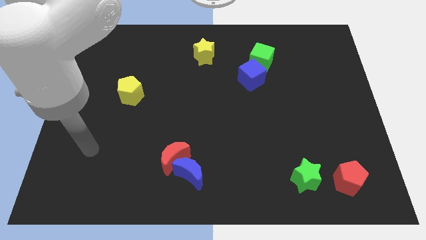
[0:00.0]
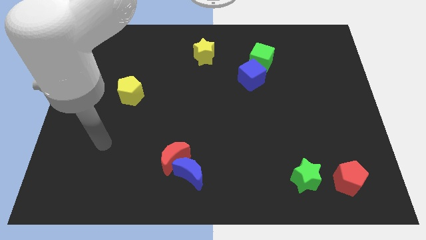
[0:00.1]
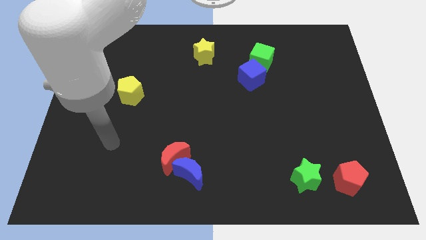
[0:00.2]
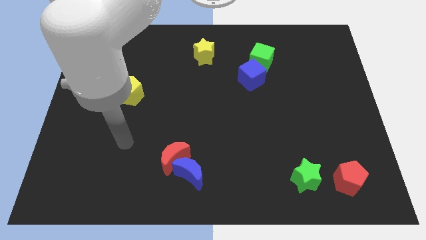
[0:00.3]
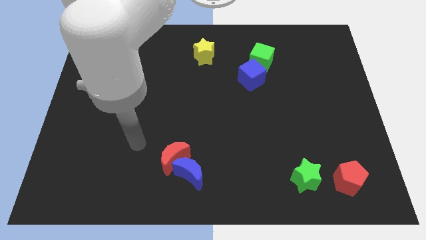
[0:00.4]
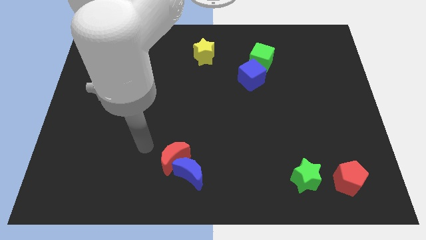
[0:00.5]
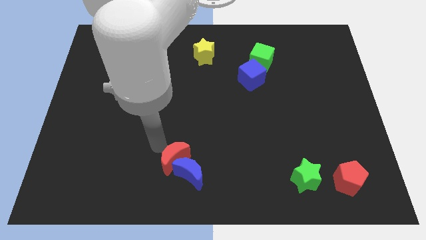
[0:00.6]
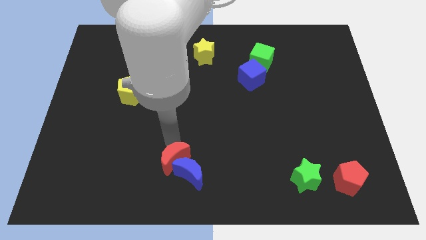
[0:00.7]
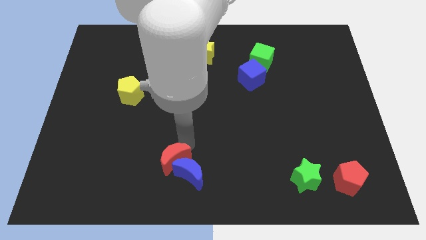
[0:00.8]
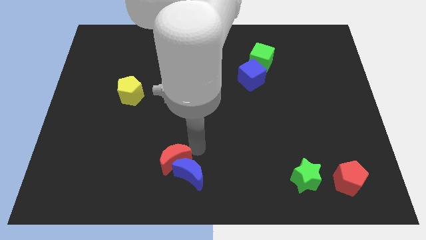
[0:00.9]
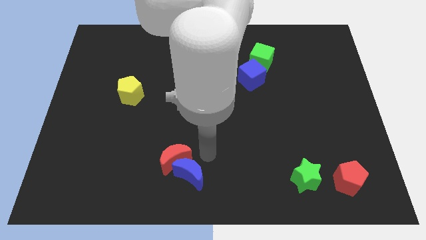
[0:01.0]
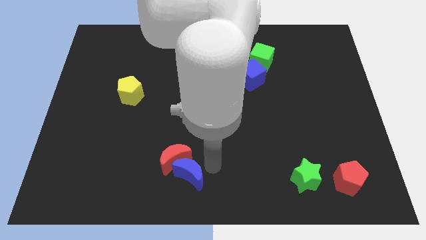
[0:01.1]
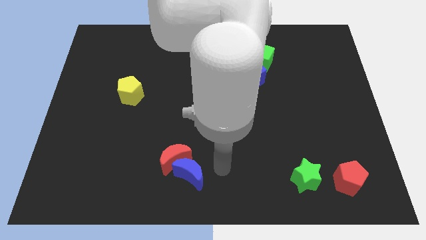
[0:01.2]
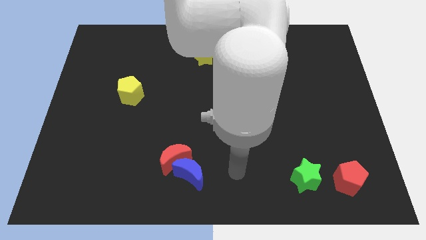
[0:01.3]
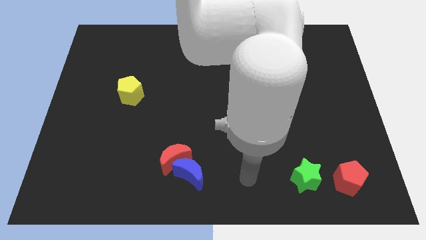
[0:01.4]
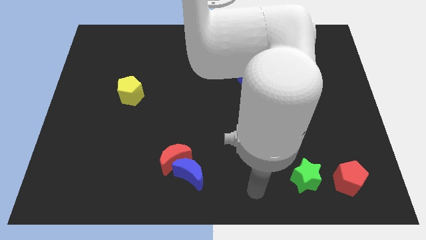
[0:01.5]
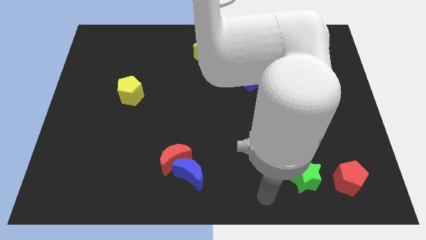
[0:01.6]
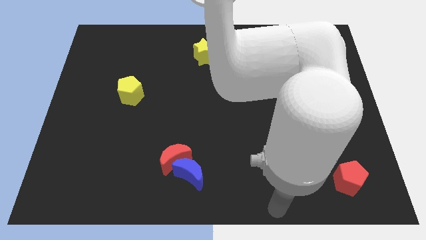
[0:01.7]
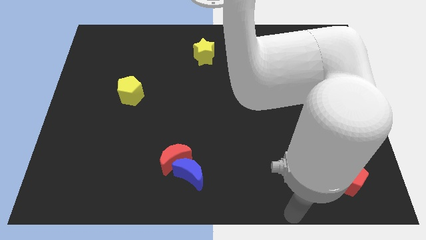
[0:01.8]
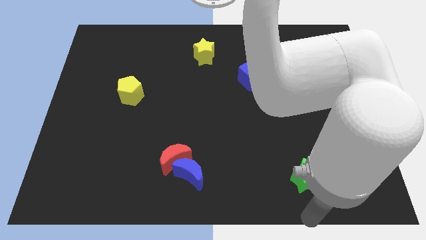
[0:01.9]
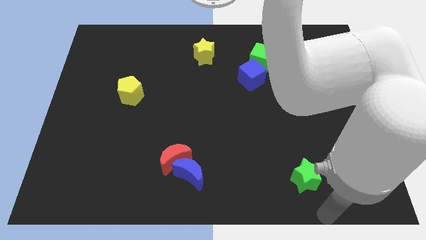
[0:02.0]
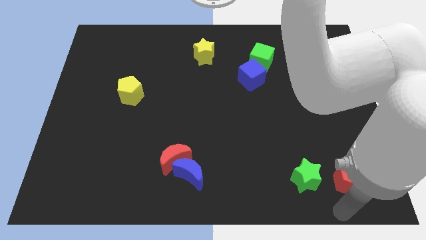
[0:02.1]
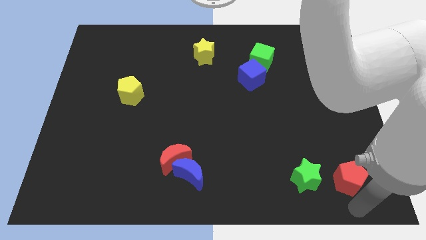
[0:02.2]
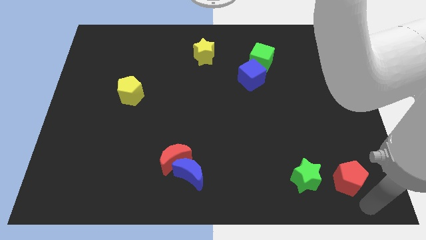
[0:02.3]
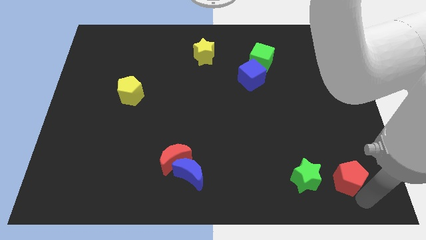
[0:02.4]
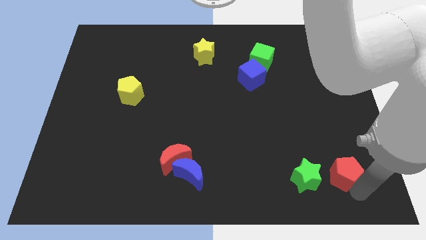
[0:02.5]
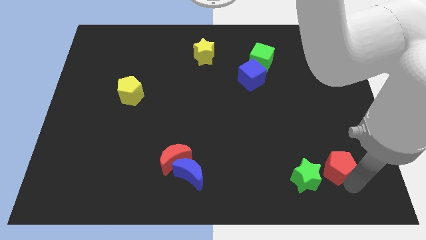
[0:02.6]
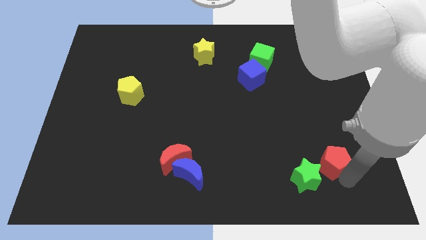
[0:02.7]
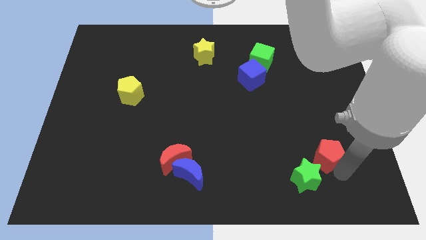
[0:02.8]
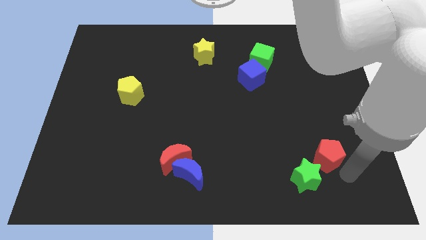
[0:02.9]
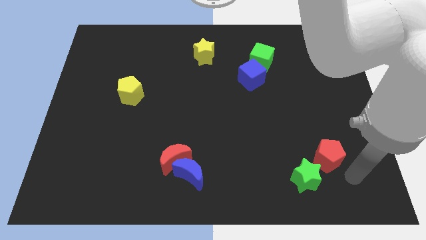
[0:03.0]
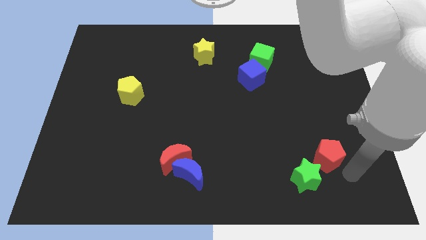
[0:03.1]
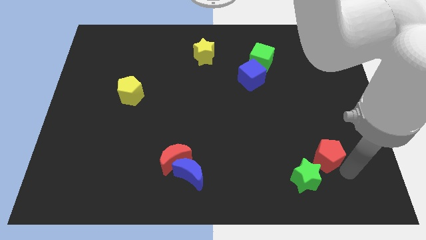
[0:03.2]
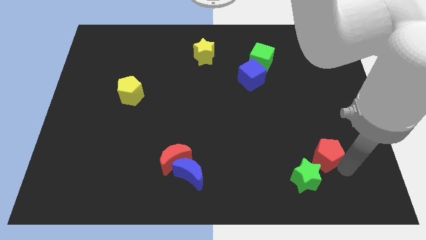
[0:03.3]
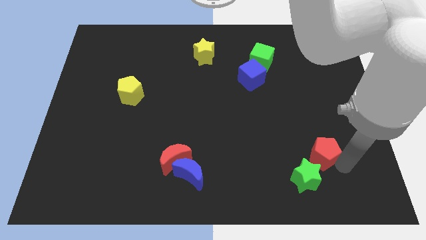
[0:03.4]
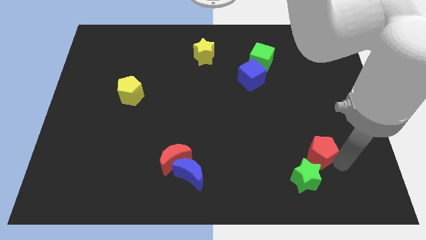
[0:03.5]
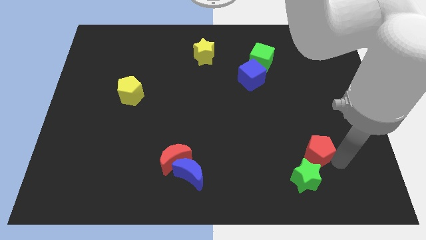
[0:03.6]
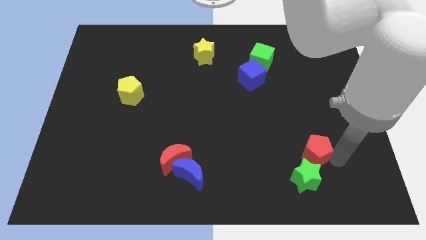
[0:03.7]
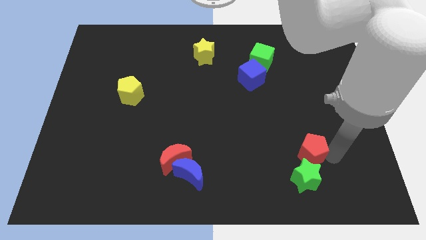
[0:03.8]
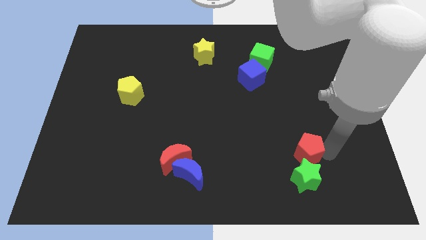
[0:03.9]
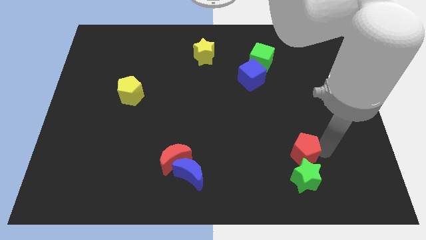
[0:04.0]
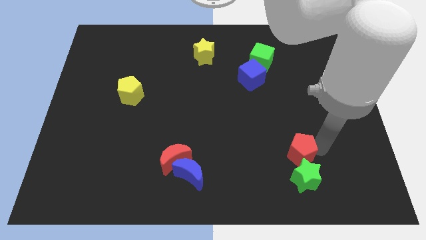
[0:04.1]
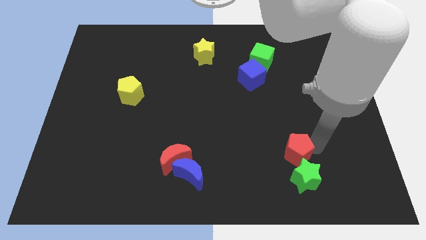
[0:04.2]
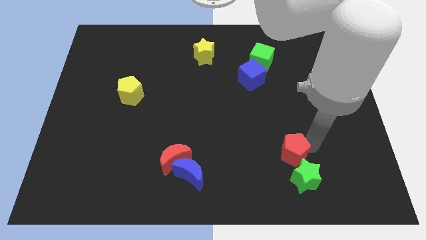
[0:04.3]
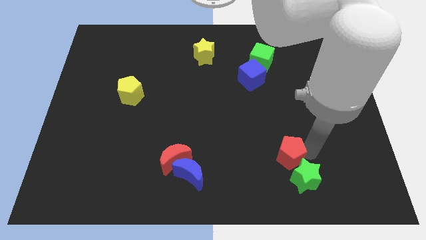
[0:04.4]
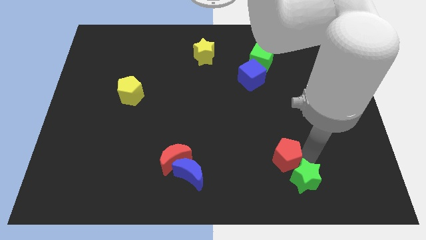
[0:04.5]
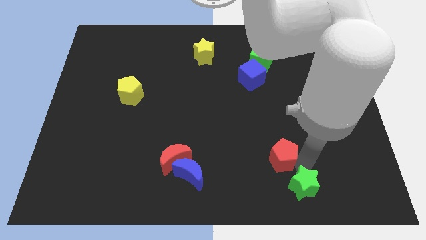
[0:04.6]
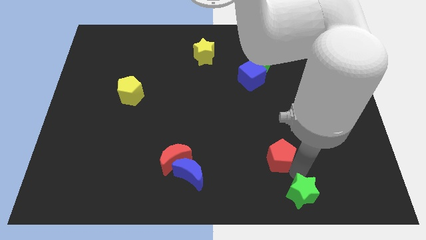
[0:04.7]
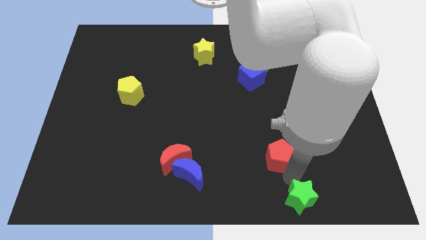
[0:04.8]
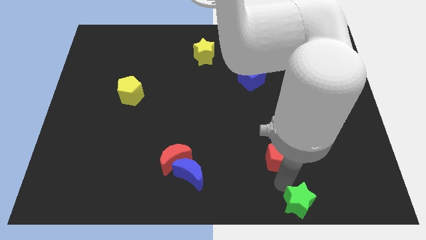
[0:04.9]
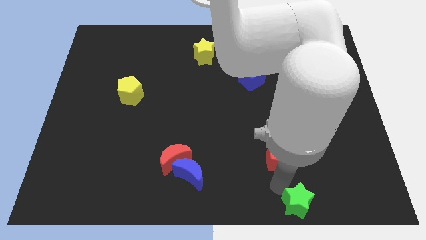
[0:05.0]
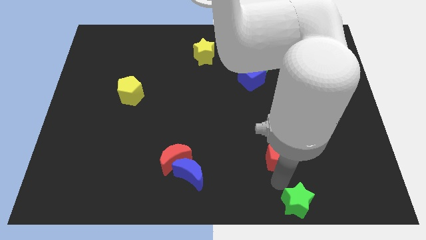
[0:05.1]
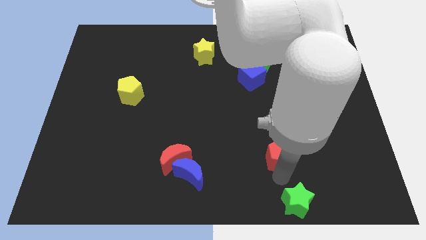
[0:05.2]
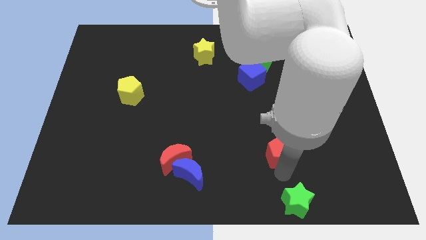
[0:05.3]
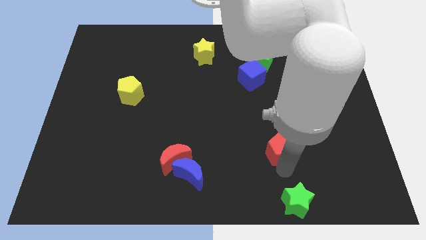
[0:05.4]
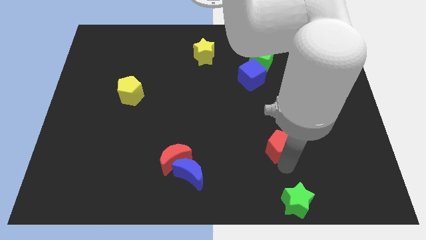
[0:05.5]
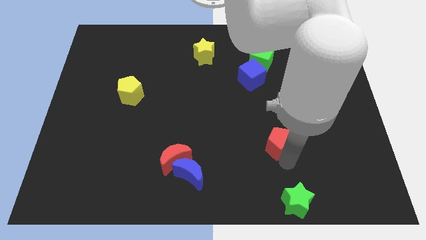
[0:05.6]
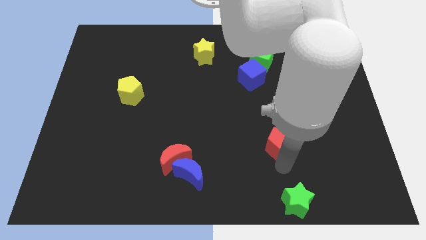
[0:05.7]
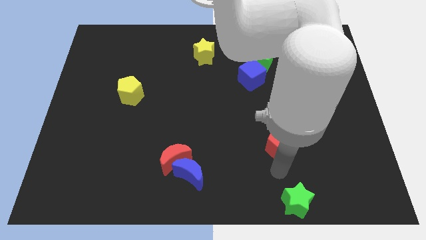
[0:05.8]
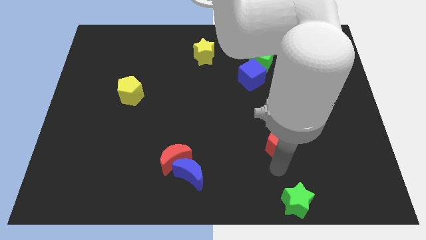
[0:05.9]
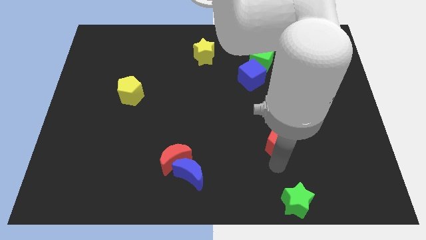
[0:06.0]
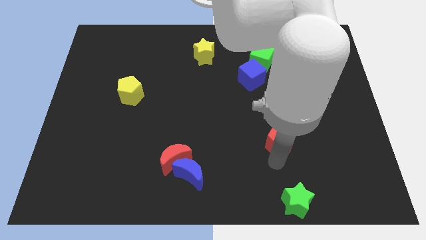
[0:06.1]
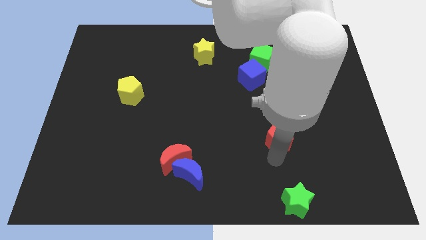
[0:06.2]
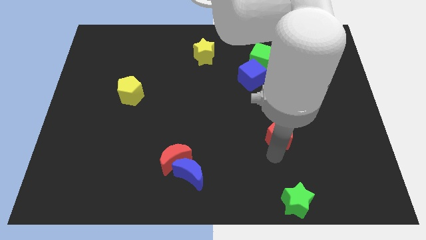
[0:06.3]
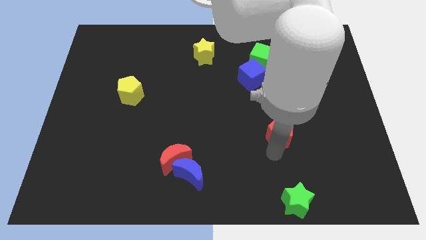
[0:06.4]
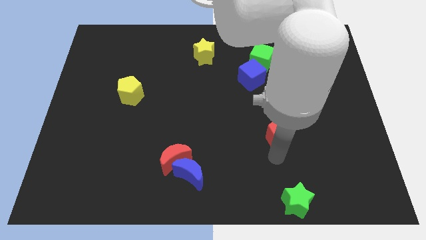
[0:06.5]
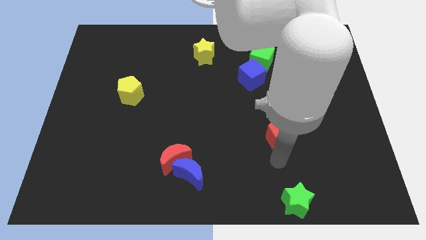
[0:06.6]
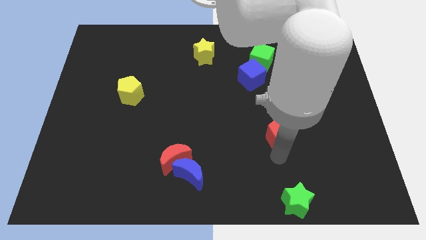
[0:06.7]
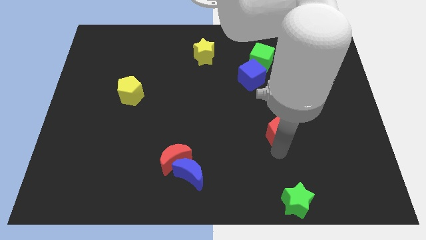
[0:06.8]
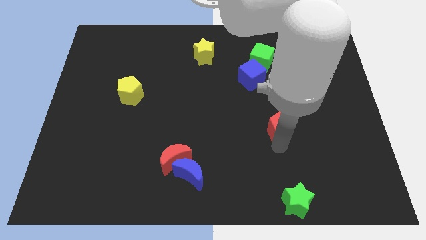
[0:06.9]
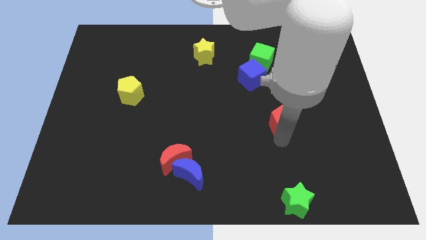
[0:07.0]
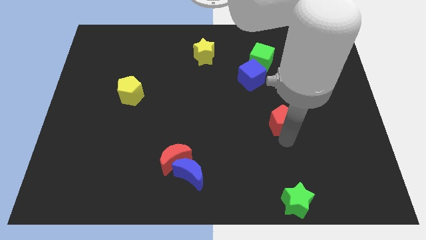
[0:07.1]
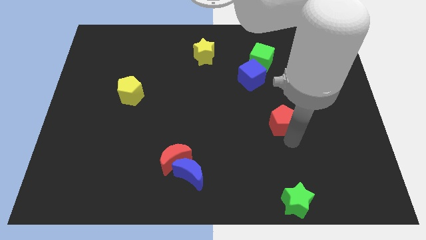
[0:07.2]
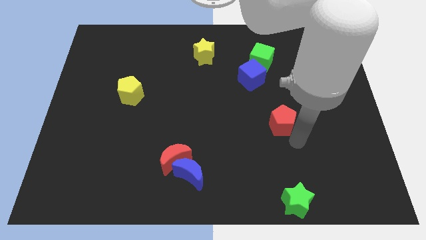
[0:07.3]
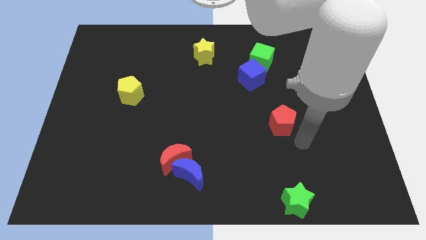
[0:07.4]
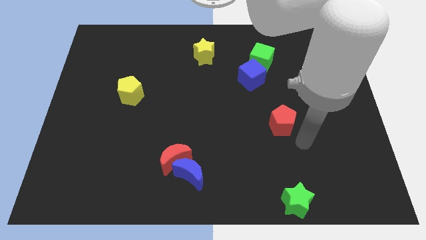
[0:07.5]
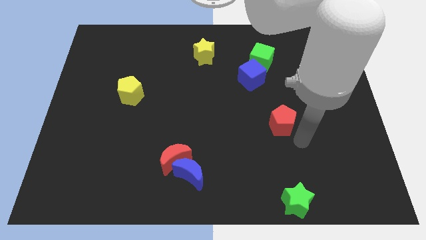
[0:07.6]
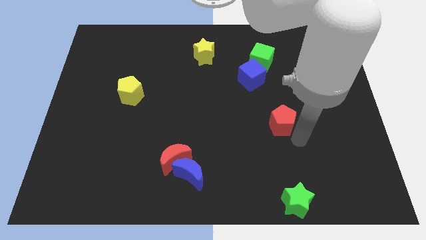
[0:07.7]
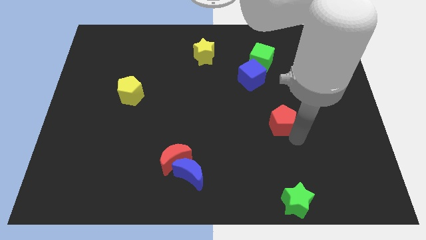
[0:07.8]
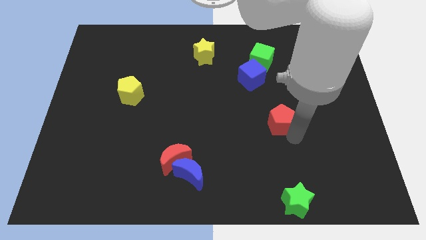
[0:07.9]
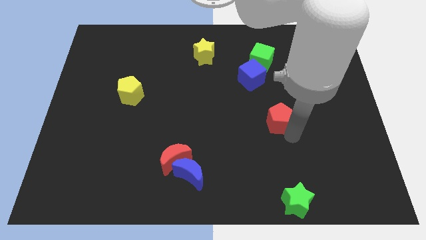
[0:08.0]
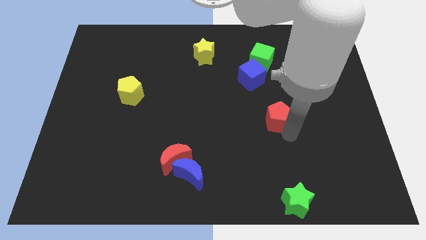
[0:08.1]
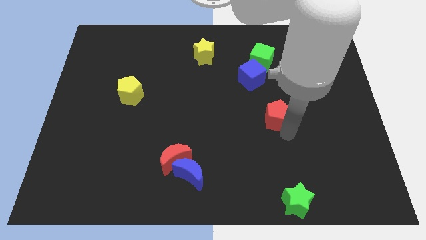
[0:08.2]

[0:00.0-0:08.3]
slide the red pentagon upwards and then to the left
